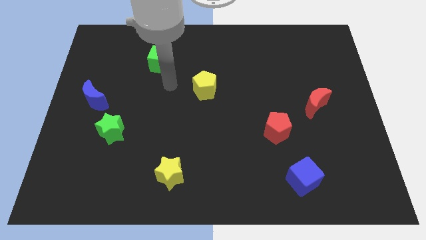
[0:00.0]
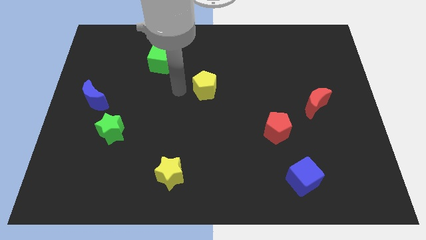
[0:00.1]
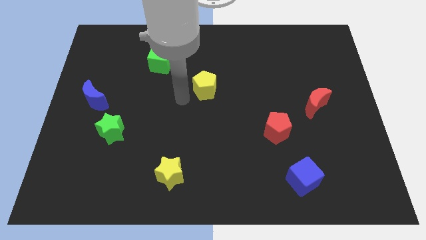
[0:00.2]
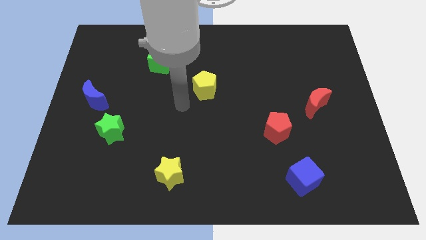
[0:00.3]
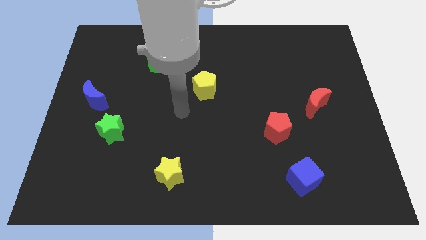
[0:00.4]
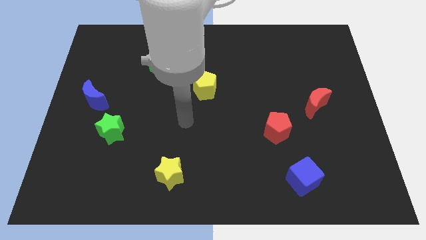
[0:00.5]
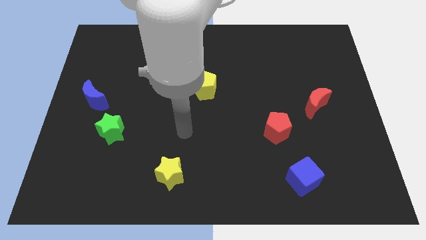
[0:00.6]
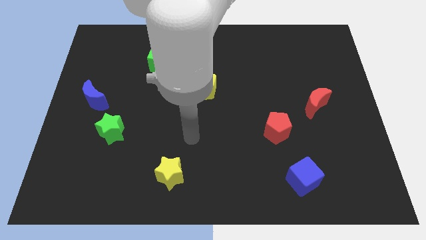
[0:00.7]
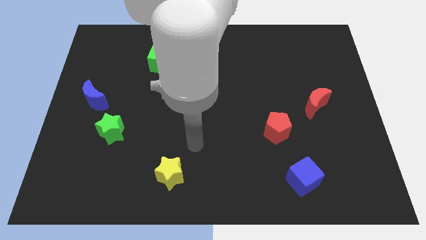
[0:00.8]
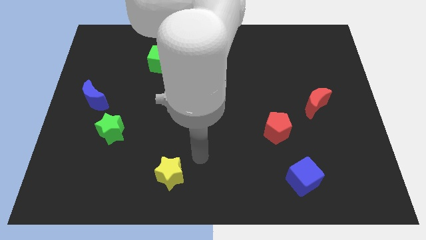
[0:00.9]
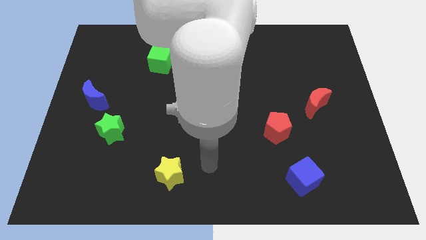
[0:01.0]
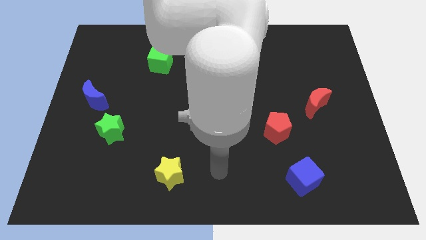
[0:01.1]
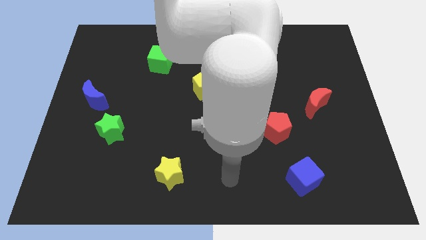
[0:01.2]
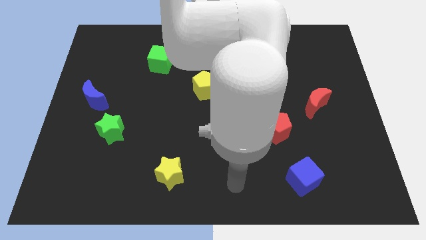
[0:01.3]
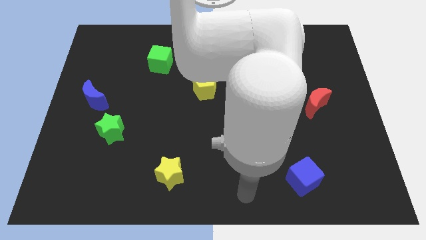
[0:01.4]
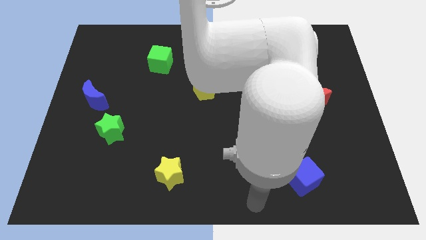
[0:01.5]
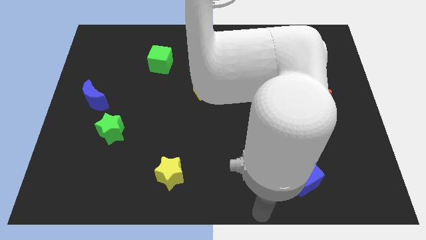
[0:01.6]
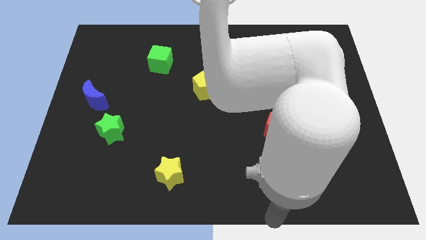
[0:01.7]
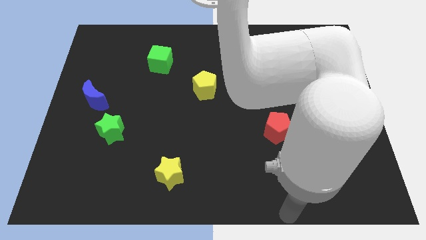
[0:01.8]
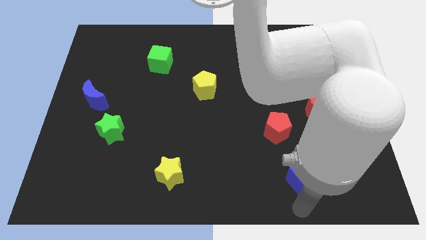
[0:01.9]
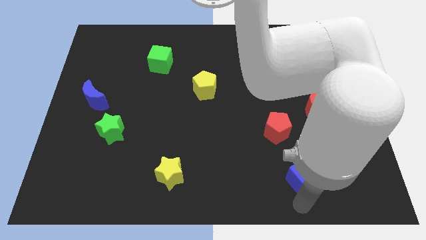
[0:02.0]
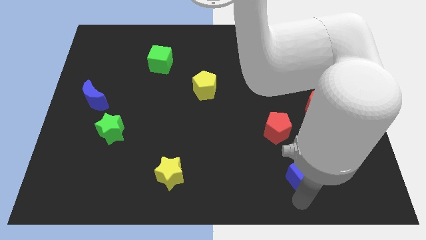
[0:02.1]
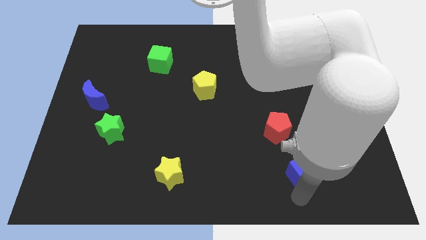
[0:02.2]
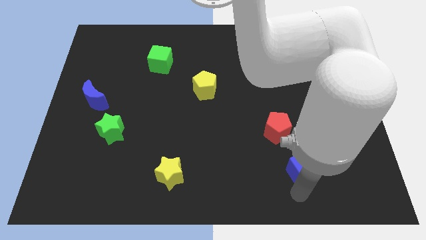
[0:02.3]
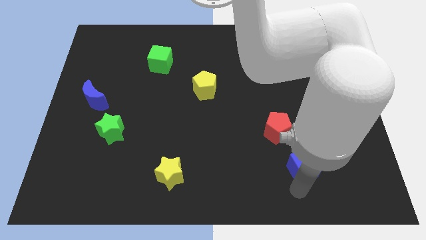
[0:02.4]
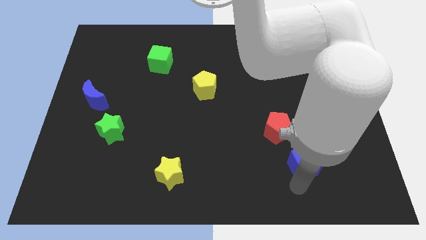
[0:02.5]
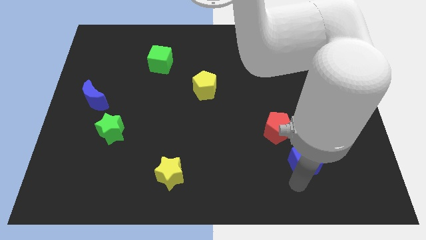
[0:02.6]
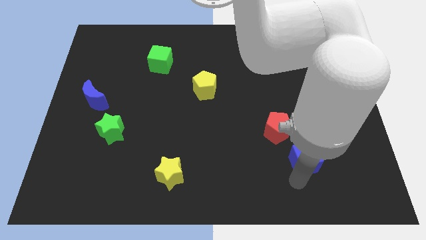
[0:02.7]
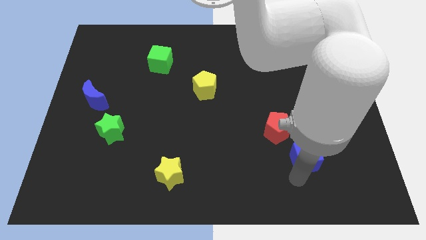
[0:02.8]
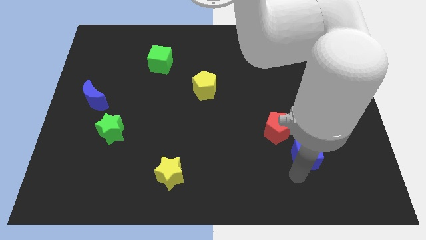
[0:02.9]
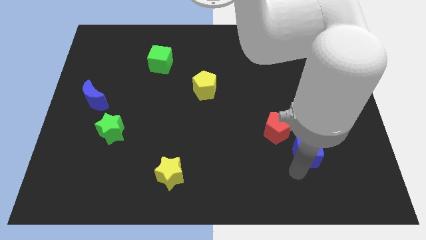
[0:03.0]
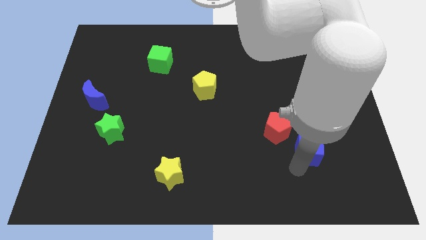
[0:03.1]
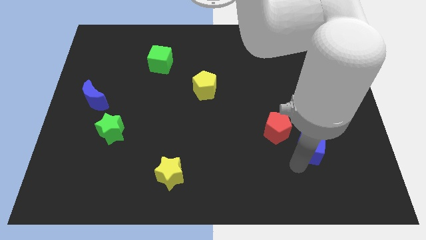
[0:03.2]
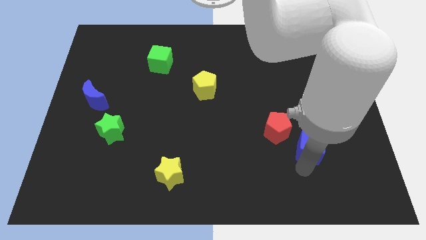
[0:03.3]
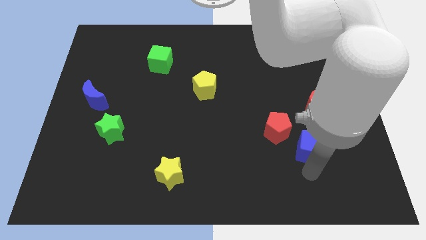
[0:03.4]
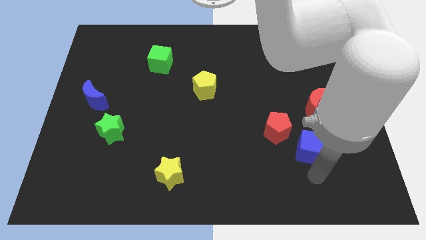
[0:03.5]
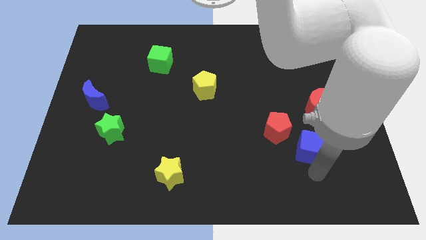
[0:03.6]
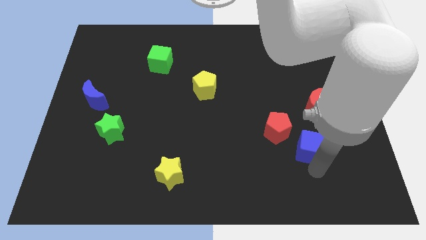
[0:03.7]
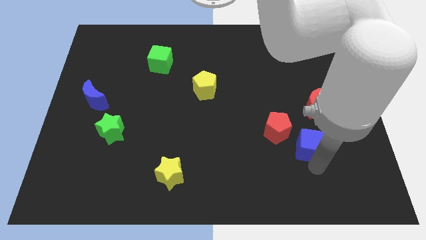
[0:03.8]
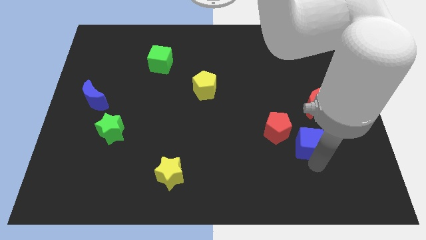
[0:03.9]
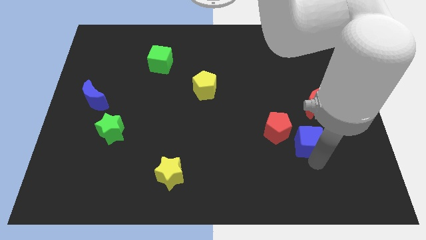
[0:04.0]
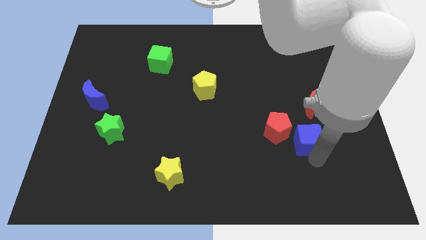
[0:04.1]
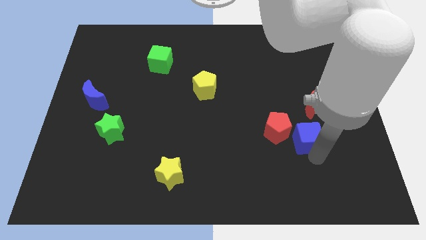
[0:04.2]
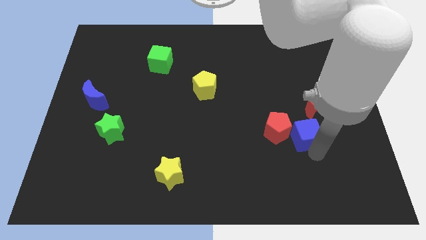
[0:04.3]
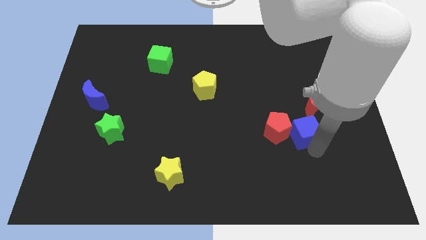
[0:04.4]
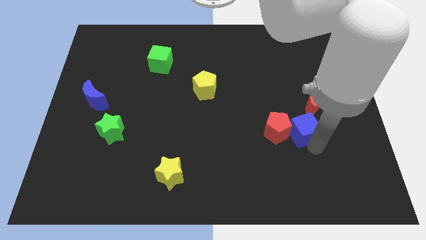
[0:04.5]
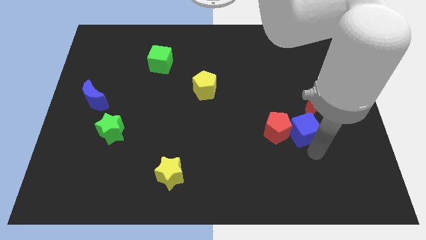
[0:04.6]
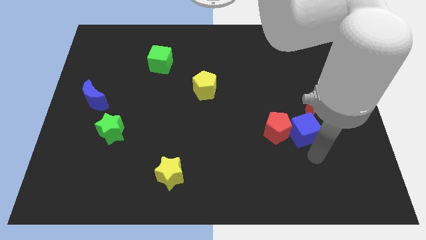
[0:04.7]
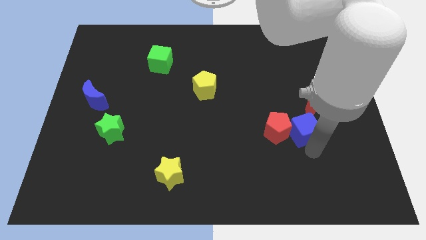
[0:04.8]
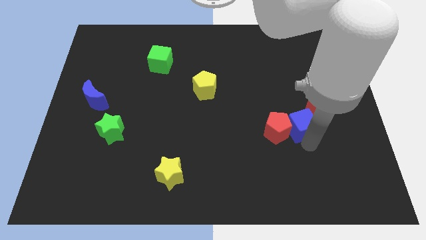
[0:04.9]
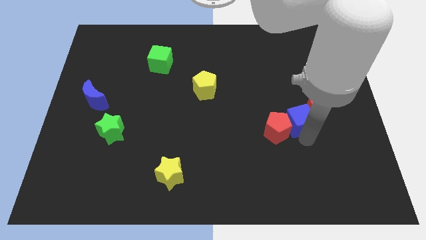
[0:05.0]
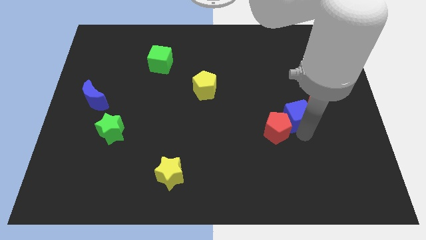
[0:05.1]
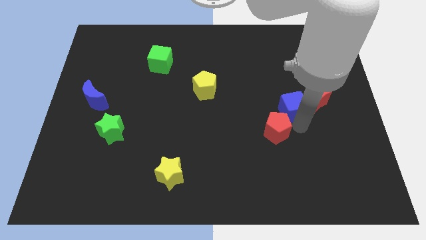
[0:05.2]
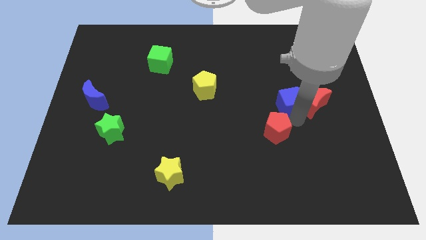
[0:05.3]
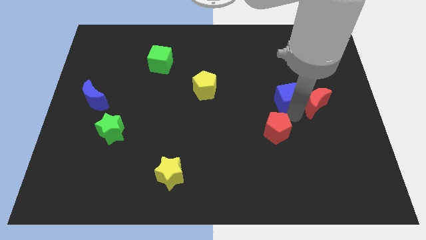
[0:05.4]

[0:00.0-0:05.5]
push the blue cube upwards

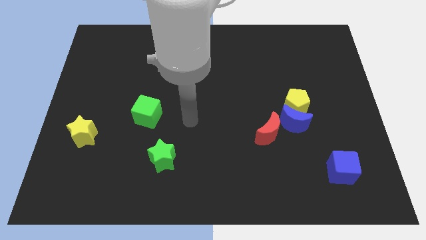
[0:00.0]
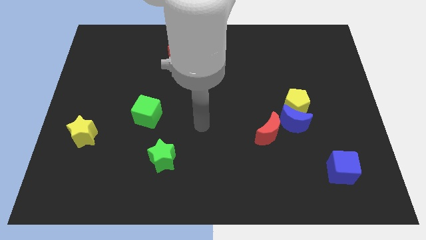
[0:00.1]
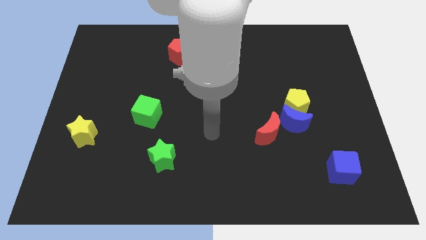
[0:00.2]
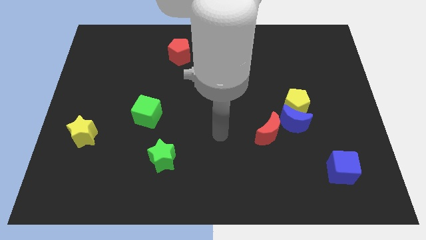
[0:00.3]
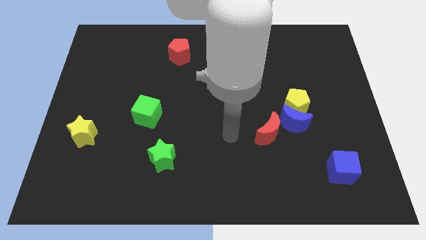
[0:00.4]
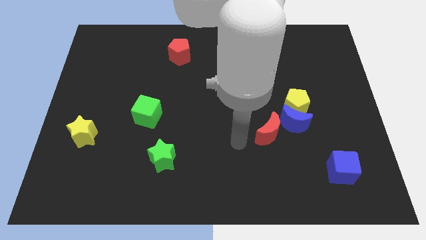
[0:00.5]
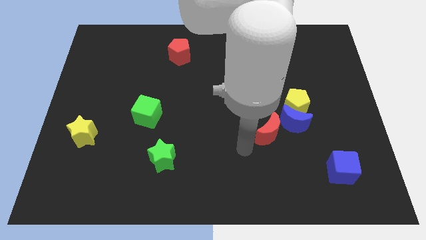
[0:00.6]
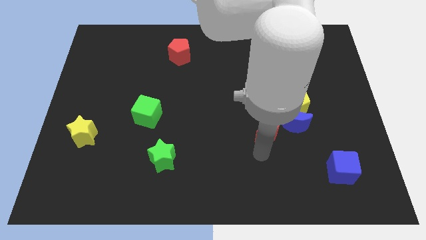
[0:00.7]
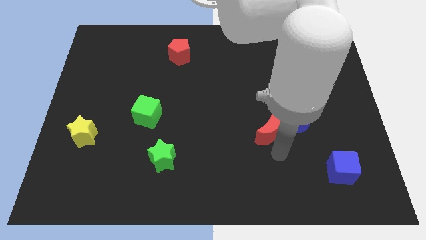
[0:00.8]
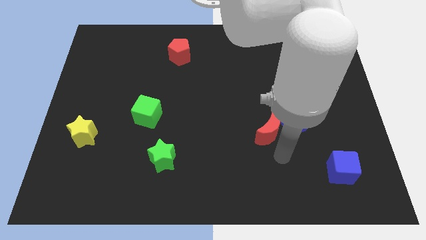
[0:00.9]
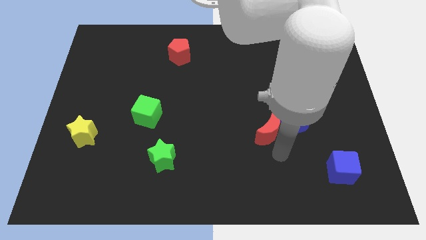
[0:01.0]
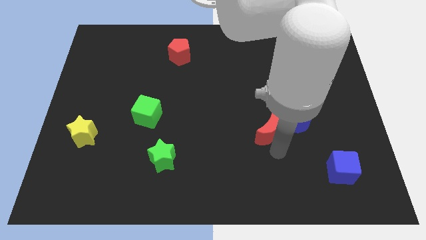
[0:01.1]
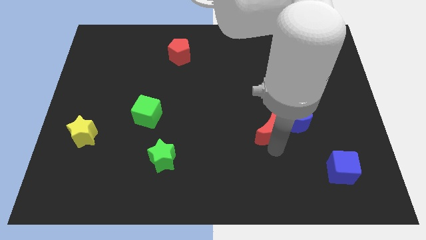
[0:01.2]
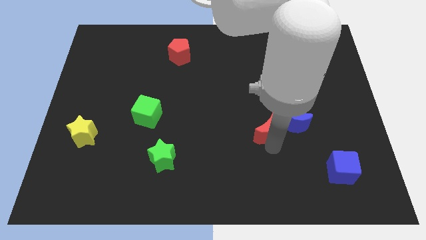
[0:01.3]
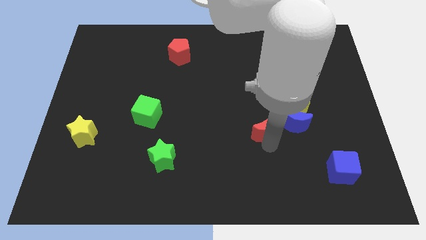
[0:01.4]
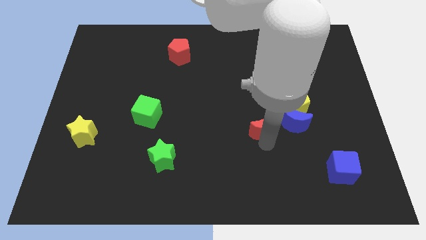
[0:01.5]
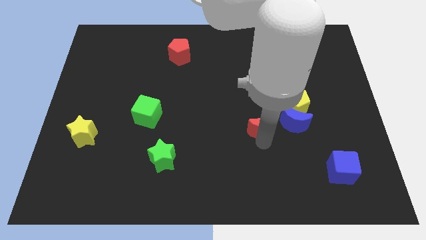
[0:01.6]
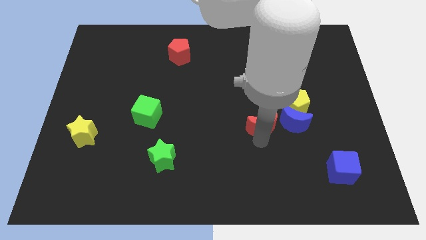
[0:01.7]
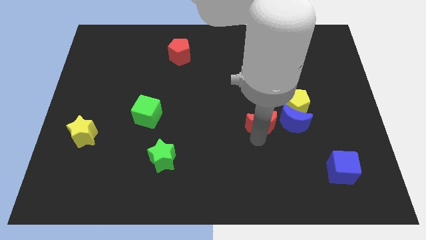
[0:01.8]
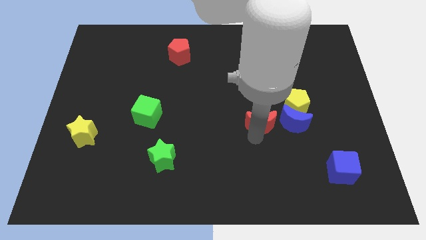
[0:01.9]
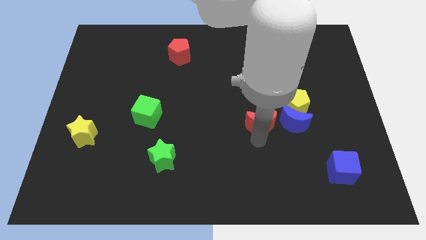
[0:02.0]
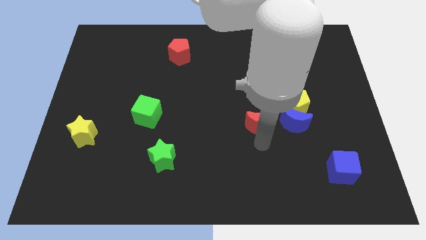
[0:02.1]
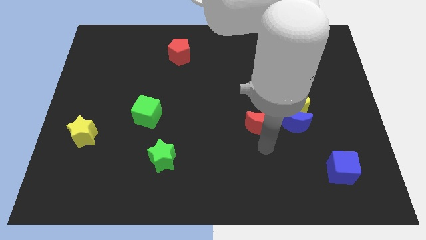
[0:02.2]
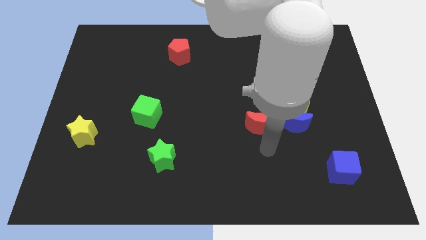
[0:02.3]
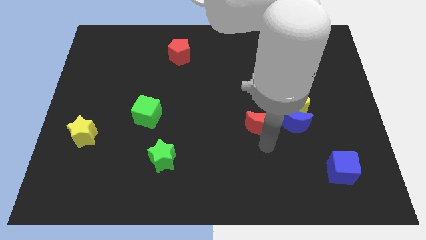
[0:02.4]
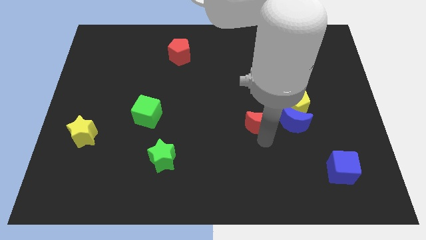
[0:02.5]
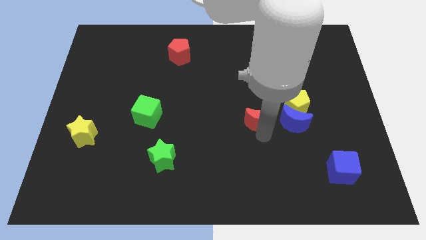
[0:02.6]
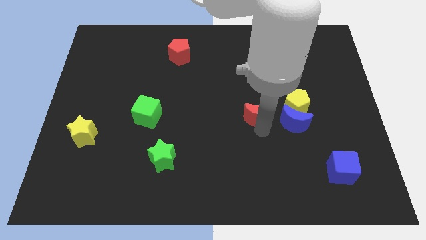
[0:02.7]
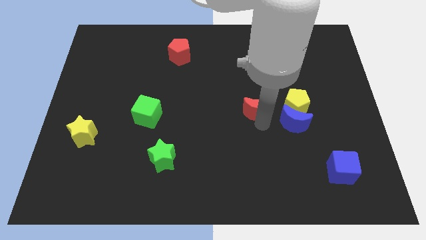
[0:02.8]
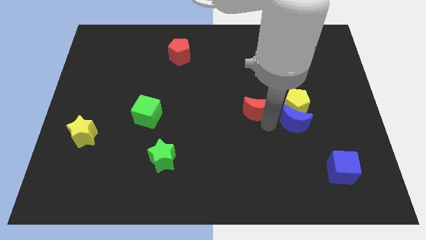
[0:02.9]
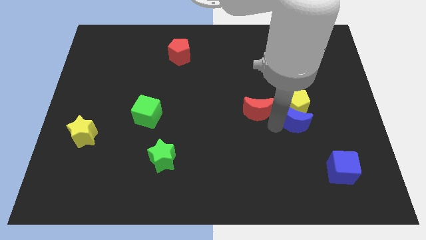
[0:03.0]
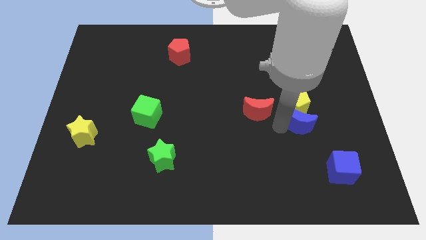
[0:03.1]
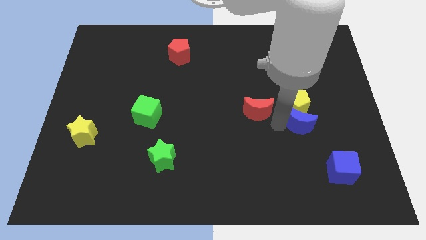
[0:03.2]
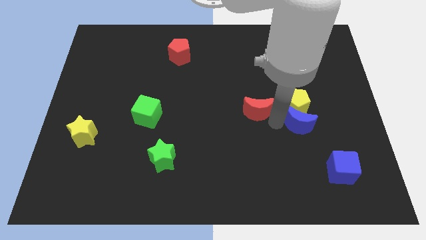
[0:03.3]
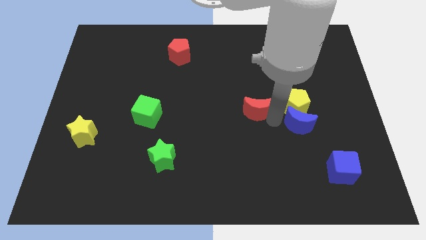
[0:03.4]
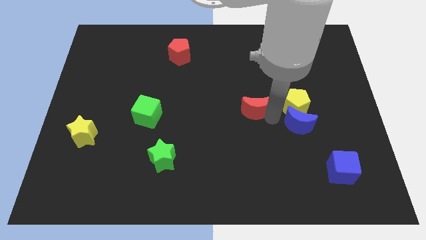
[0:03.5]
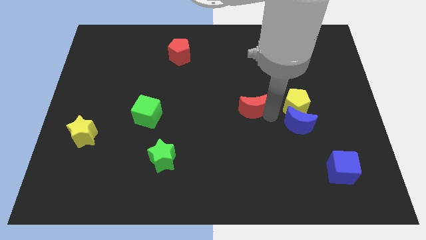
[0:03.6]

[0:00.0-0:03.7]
slightly slide the red moon up and to the left diagonally
